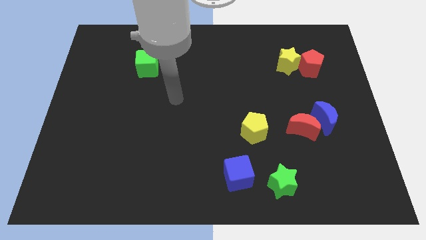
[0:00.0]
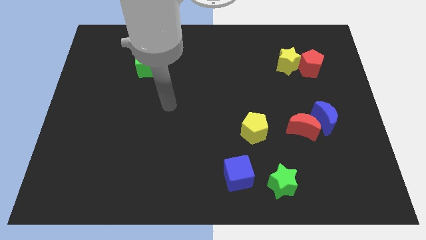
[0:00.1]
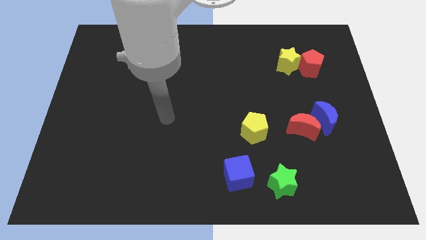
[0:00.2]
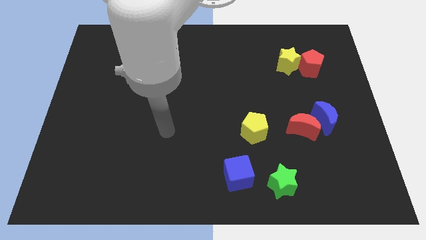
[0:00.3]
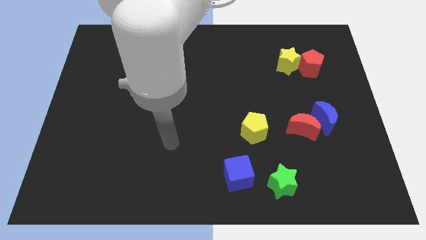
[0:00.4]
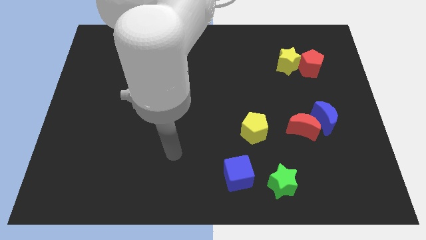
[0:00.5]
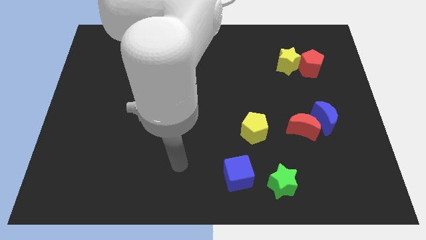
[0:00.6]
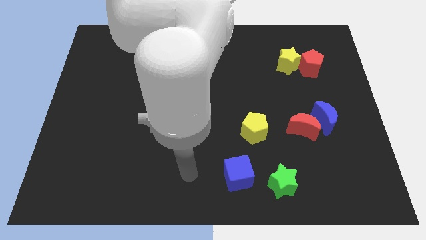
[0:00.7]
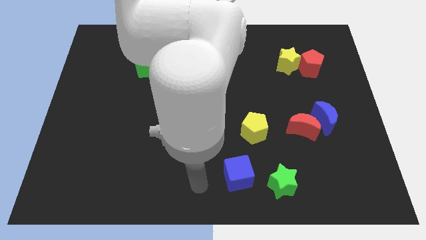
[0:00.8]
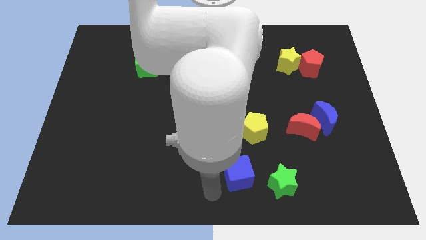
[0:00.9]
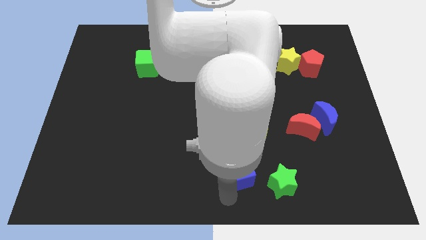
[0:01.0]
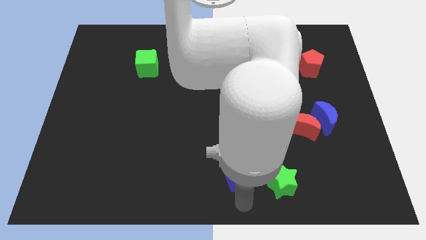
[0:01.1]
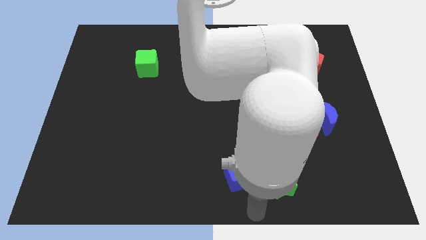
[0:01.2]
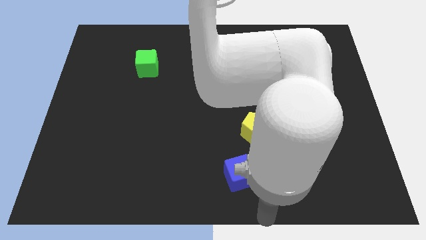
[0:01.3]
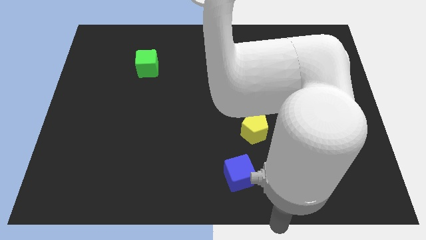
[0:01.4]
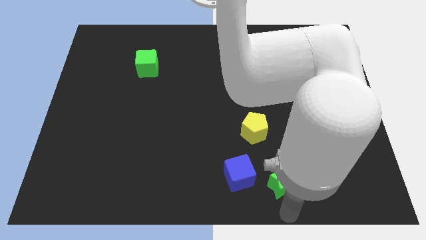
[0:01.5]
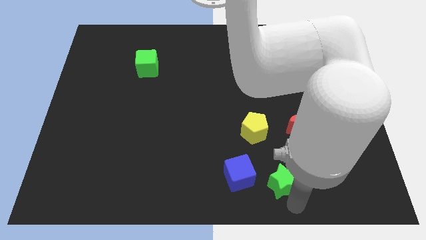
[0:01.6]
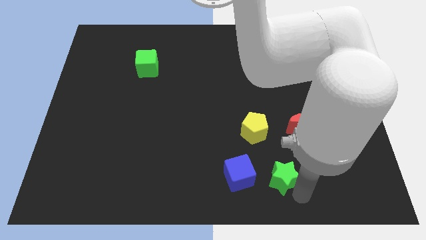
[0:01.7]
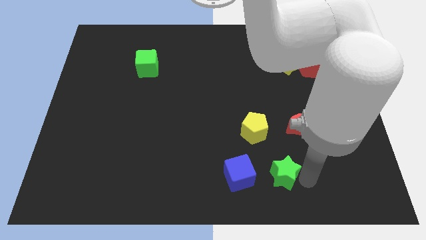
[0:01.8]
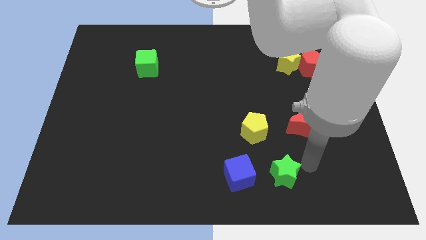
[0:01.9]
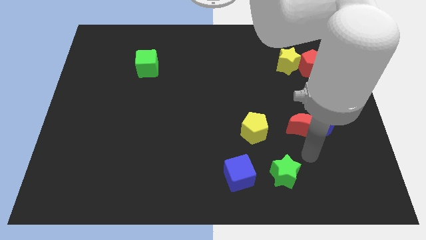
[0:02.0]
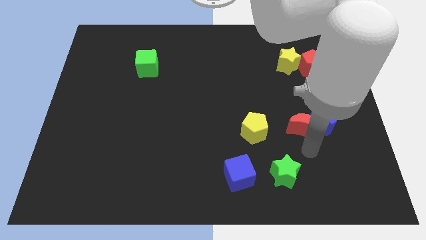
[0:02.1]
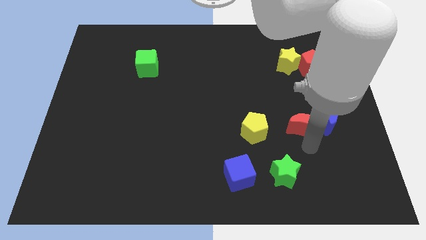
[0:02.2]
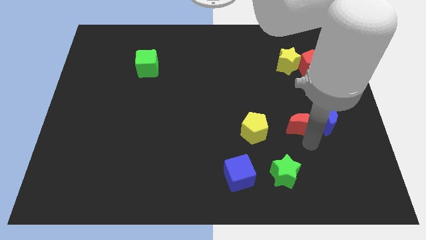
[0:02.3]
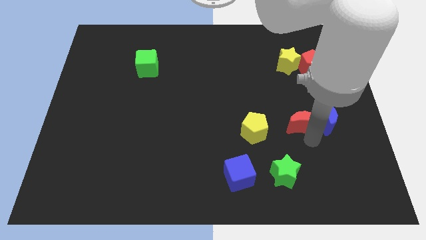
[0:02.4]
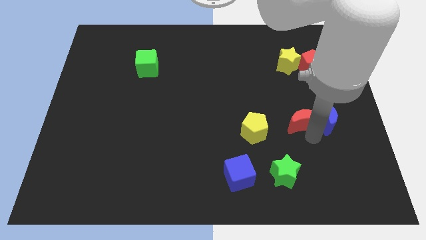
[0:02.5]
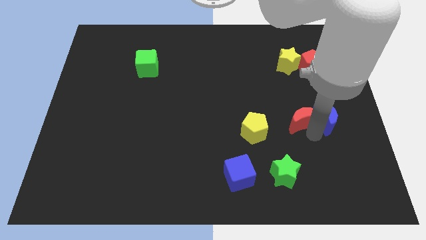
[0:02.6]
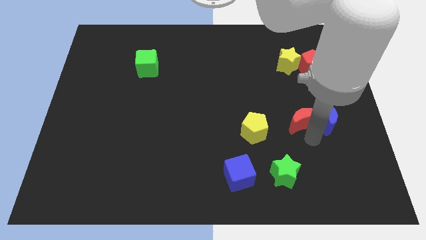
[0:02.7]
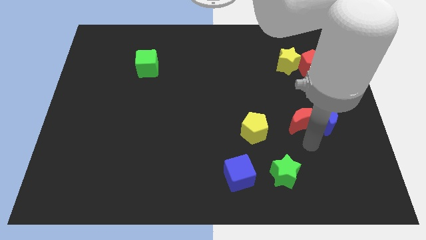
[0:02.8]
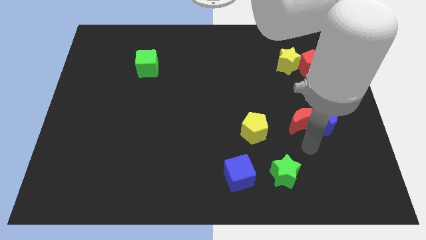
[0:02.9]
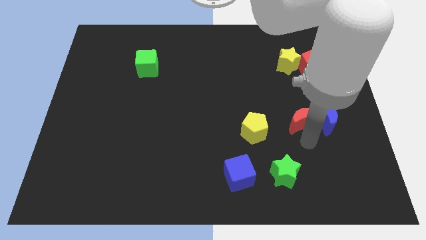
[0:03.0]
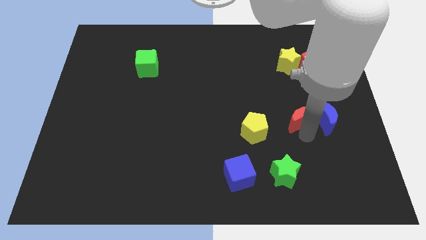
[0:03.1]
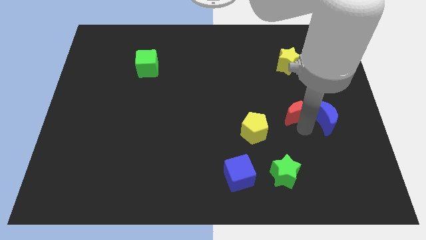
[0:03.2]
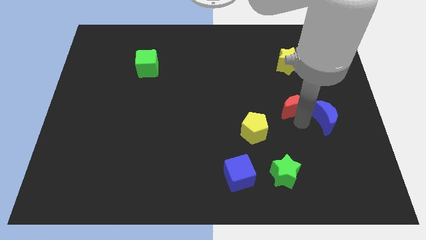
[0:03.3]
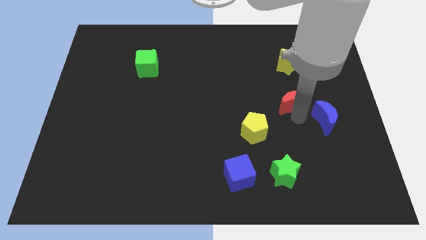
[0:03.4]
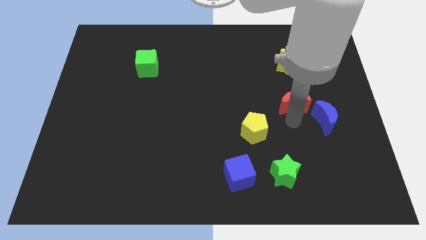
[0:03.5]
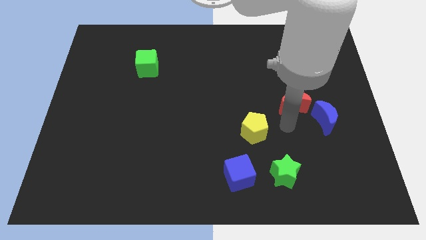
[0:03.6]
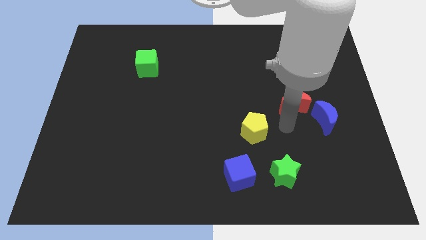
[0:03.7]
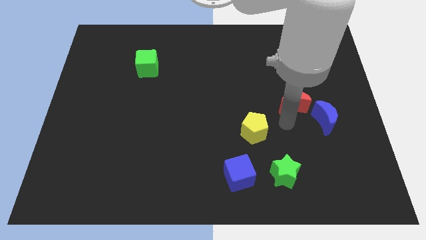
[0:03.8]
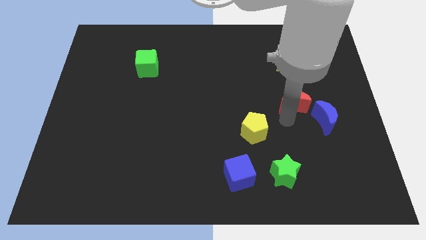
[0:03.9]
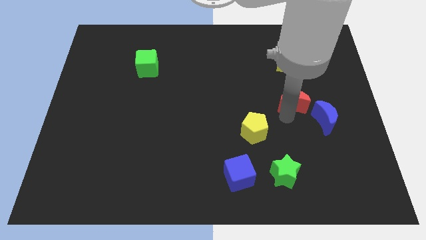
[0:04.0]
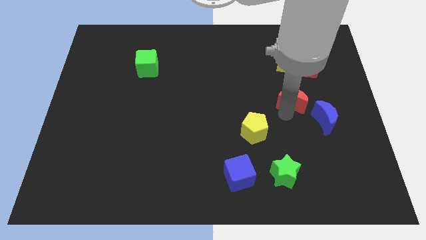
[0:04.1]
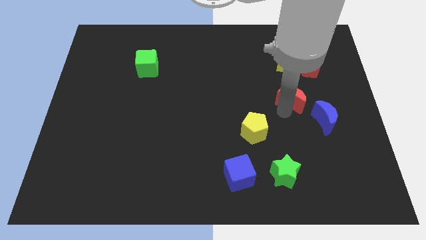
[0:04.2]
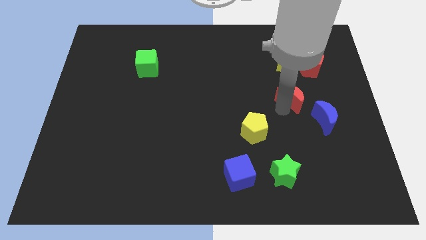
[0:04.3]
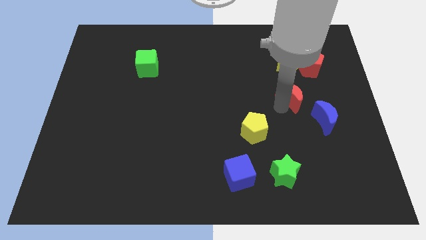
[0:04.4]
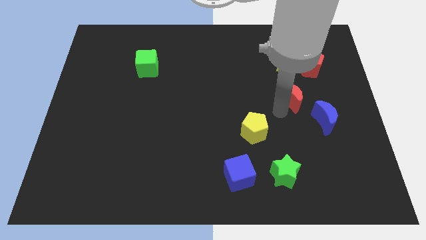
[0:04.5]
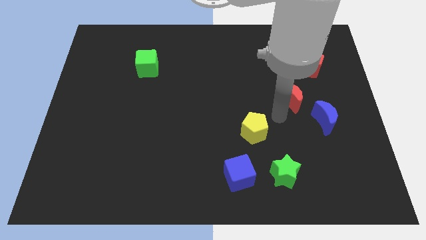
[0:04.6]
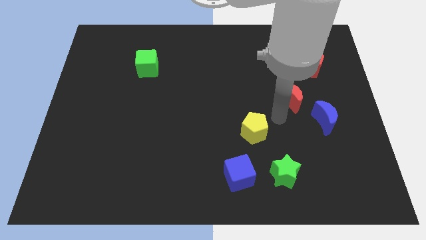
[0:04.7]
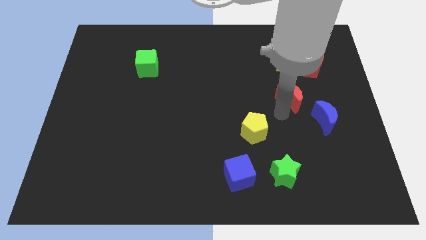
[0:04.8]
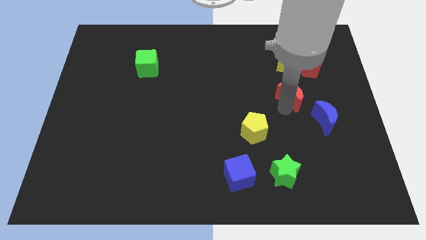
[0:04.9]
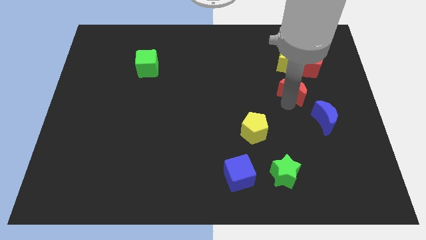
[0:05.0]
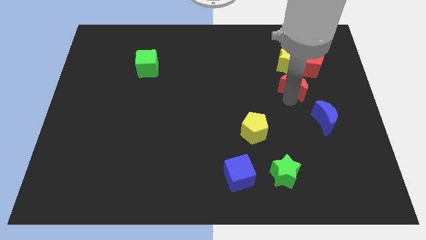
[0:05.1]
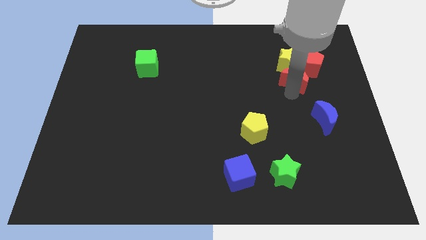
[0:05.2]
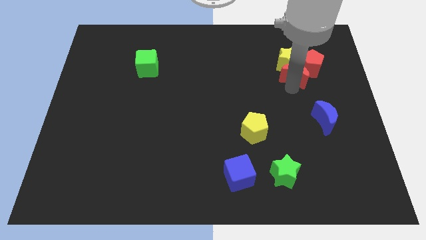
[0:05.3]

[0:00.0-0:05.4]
slide the red moon to the red pentagon

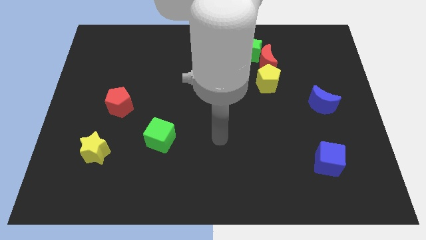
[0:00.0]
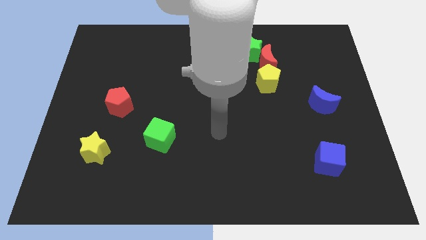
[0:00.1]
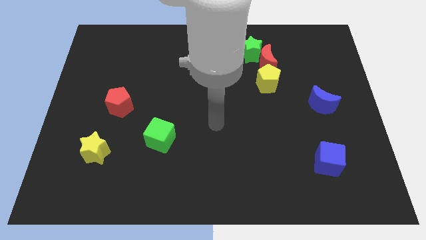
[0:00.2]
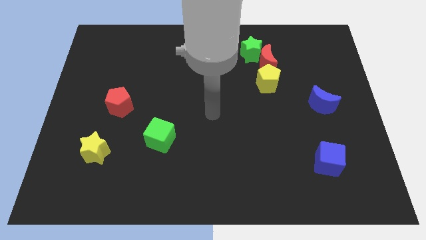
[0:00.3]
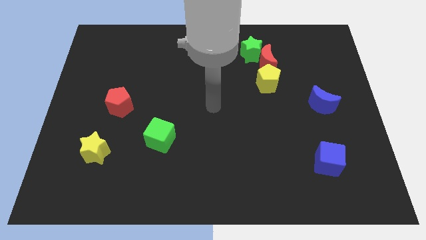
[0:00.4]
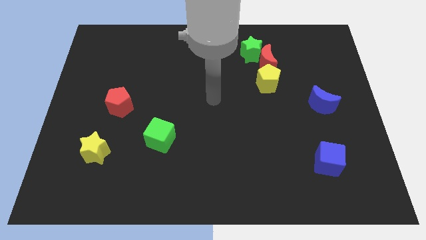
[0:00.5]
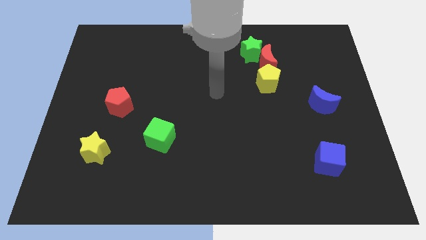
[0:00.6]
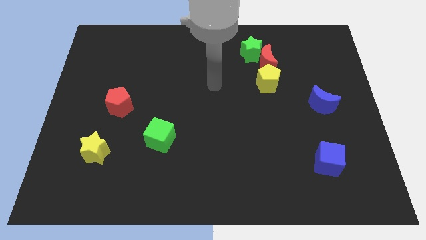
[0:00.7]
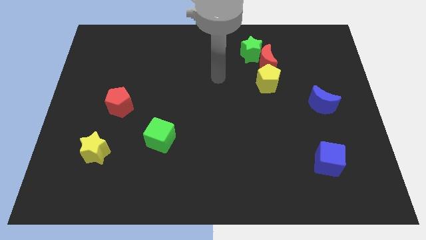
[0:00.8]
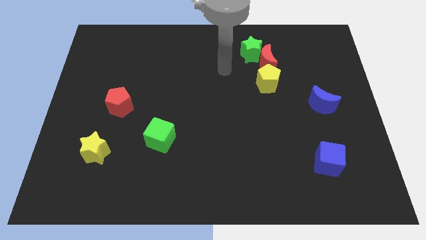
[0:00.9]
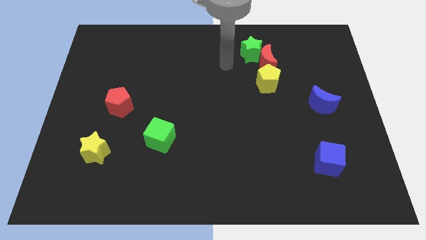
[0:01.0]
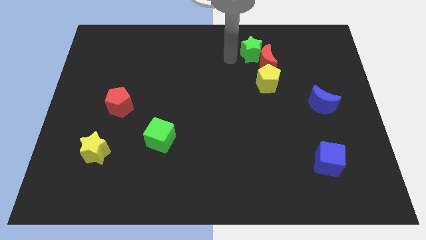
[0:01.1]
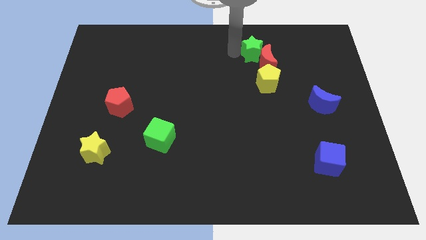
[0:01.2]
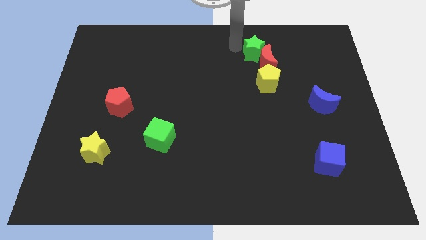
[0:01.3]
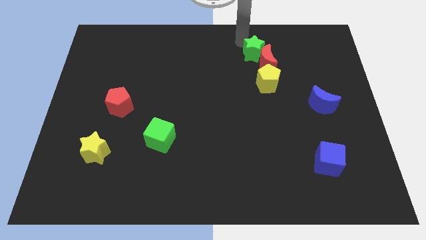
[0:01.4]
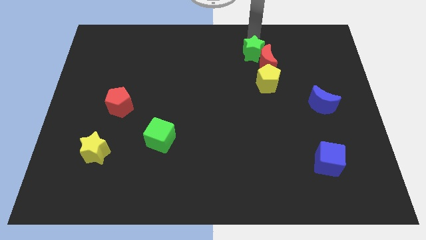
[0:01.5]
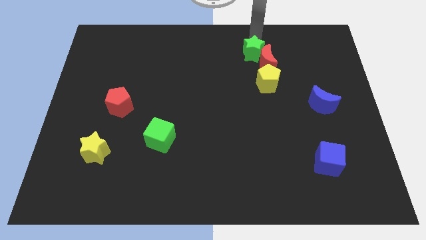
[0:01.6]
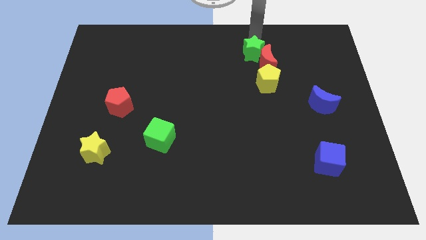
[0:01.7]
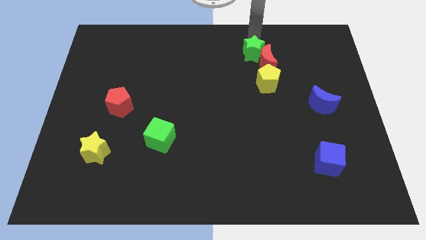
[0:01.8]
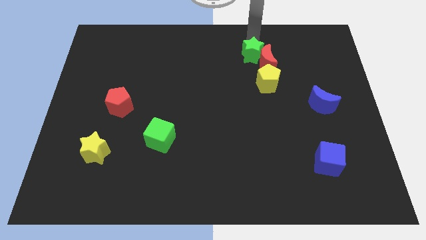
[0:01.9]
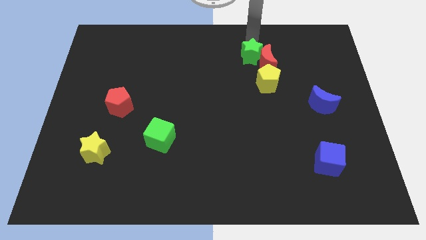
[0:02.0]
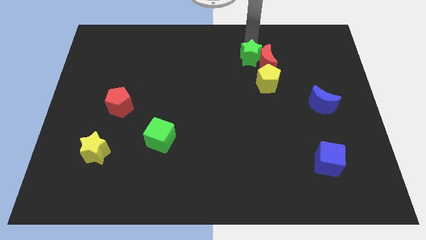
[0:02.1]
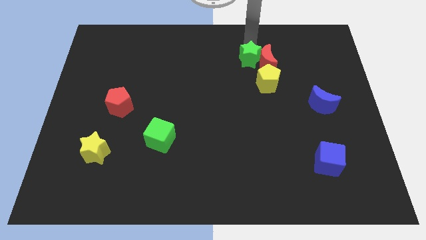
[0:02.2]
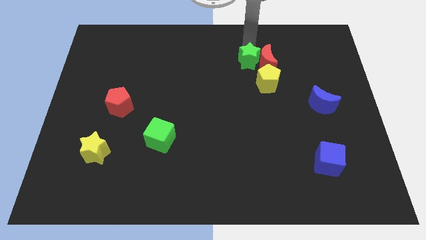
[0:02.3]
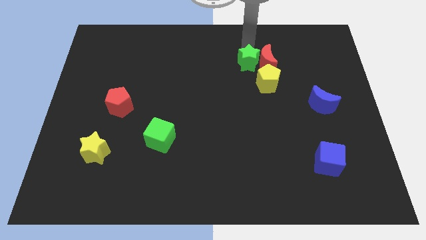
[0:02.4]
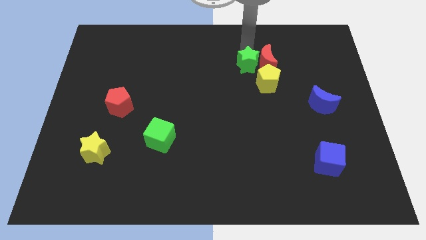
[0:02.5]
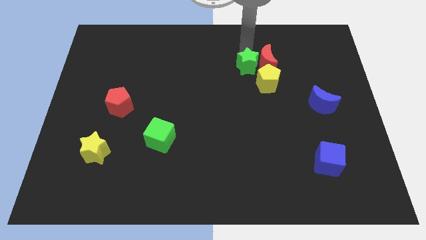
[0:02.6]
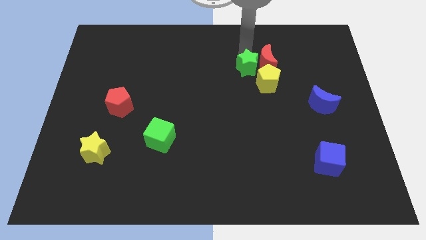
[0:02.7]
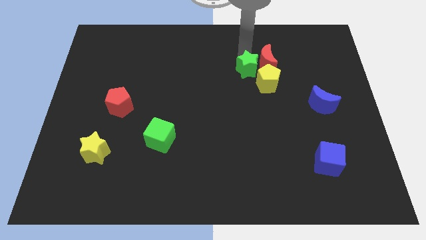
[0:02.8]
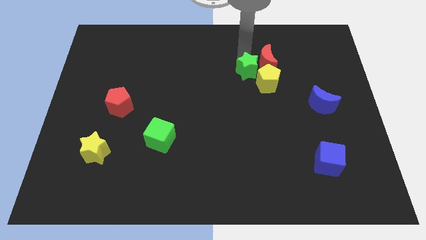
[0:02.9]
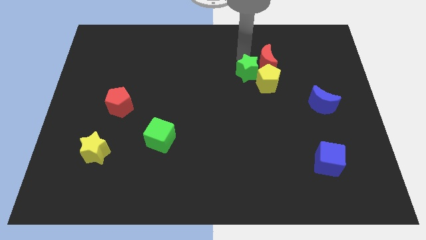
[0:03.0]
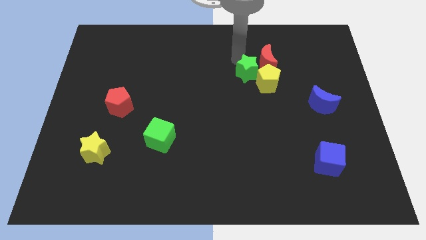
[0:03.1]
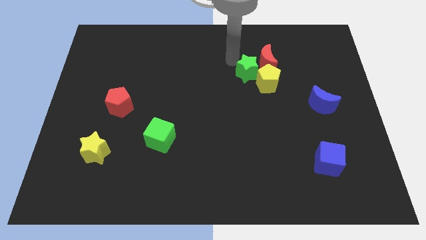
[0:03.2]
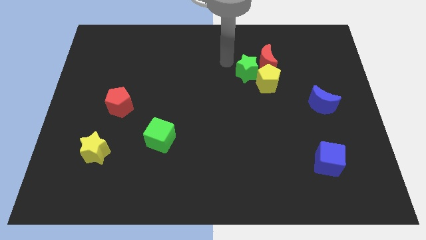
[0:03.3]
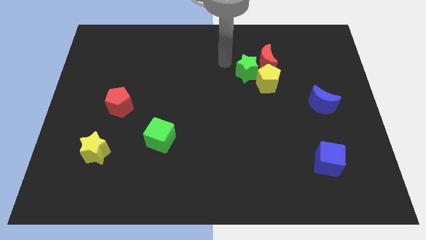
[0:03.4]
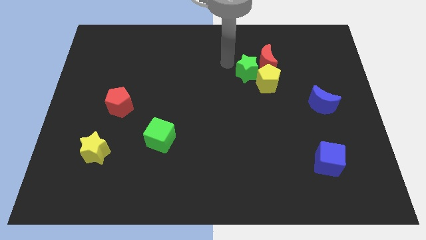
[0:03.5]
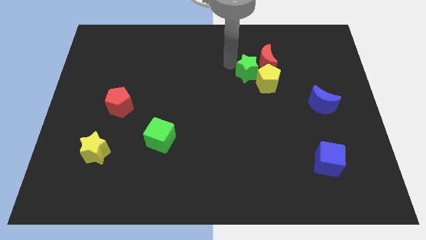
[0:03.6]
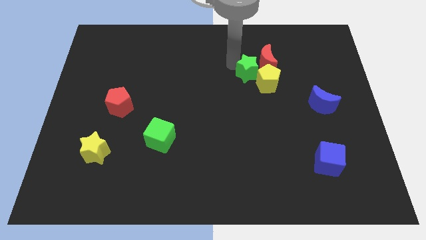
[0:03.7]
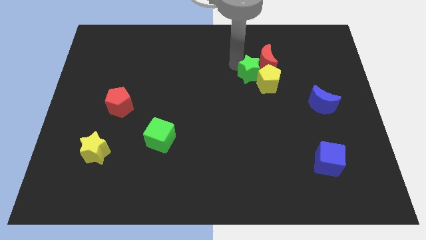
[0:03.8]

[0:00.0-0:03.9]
put the green star to the yellow pentagon
